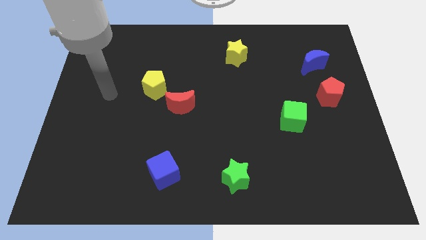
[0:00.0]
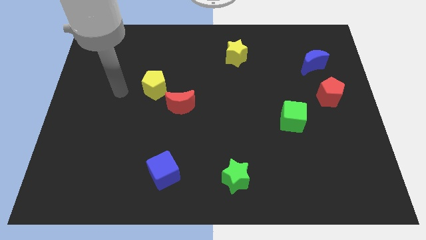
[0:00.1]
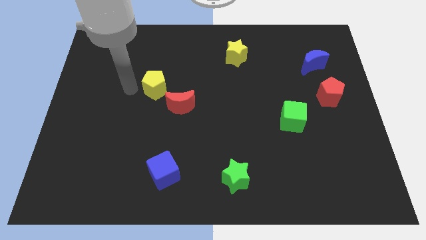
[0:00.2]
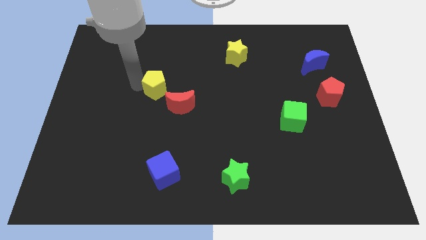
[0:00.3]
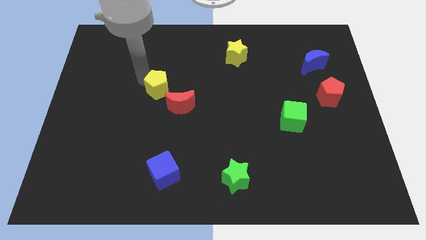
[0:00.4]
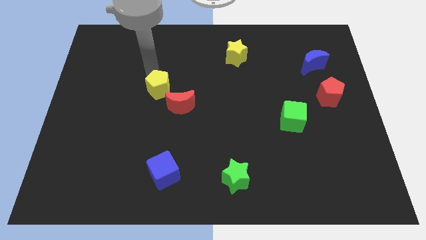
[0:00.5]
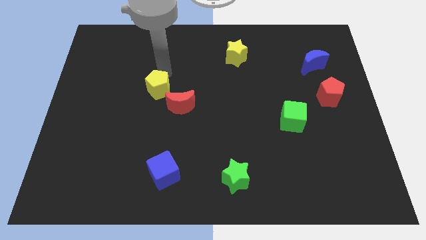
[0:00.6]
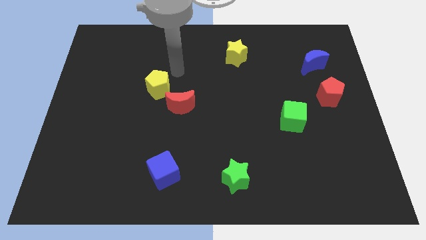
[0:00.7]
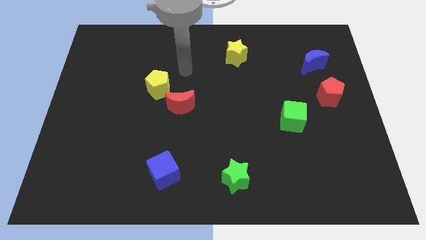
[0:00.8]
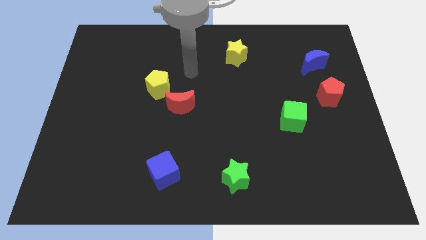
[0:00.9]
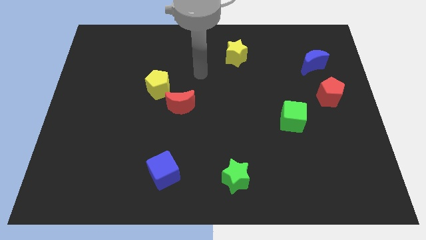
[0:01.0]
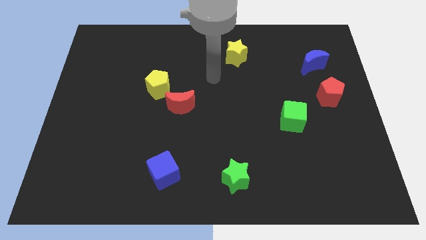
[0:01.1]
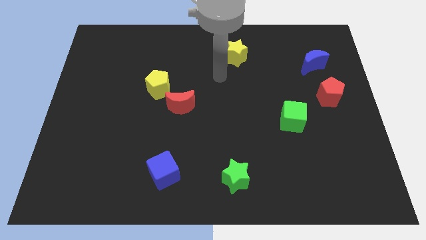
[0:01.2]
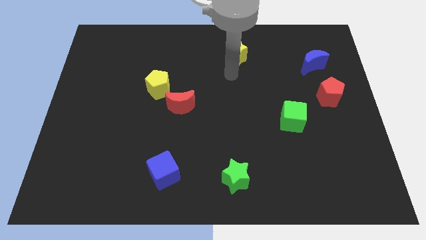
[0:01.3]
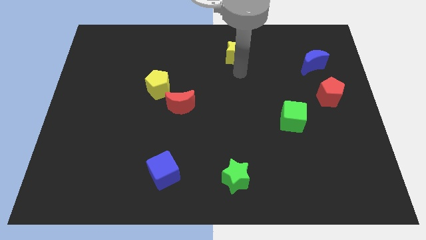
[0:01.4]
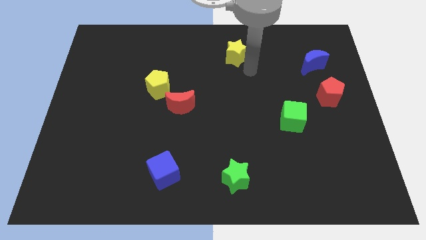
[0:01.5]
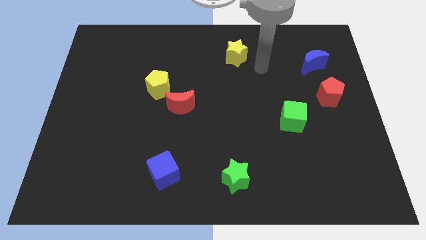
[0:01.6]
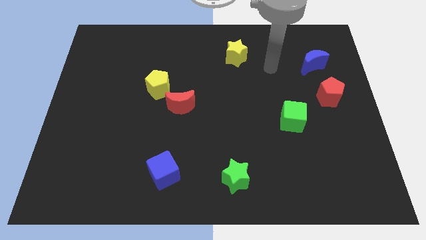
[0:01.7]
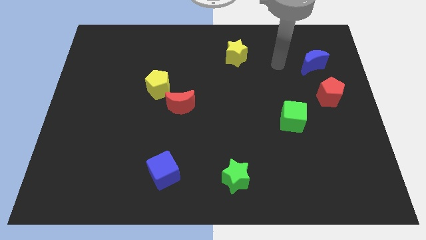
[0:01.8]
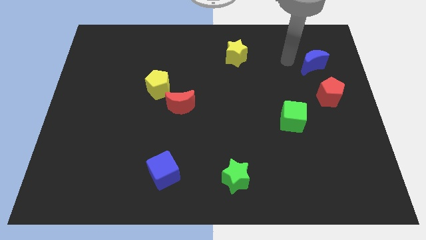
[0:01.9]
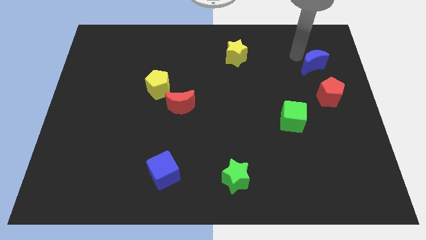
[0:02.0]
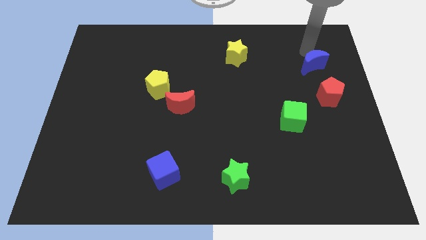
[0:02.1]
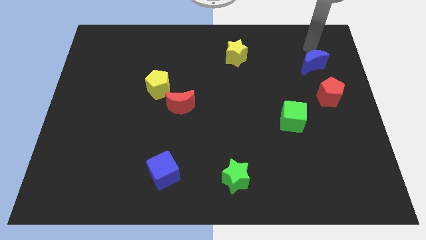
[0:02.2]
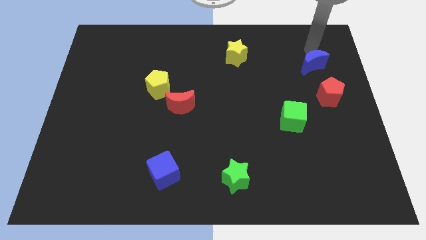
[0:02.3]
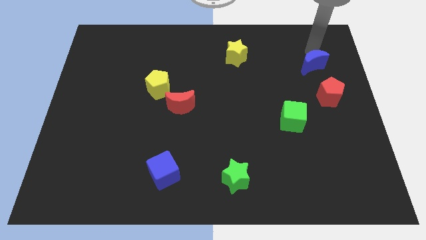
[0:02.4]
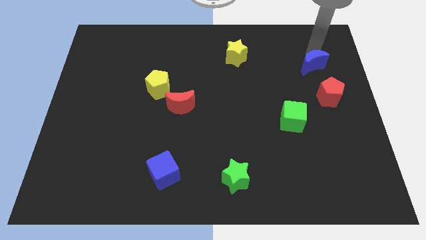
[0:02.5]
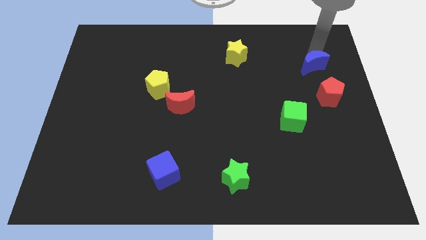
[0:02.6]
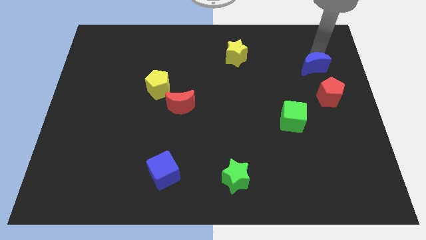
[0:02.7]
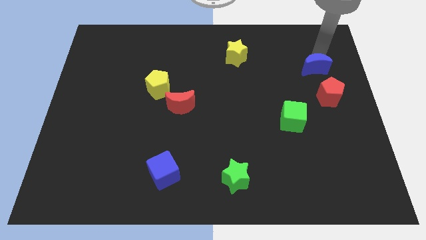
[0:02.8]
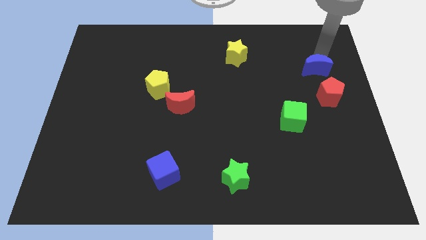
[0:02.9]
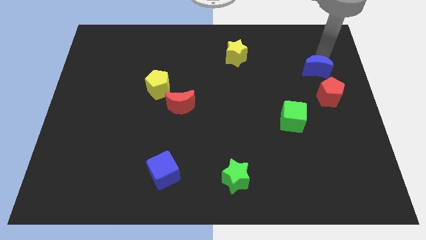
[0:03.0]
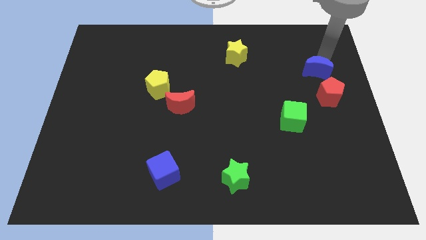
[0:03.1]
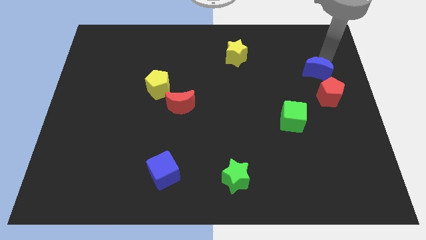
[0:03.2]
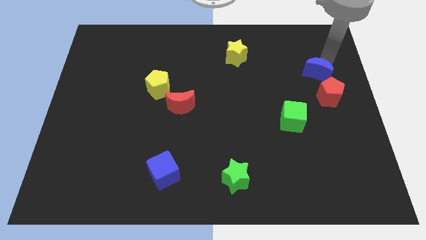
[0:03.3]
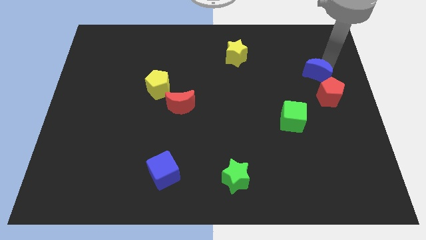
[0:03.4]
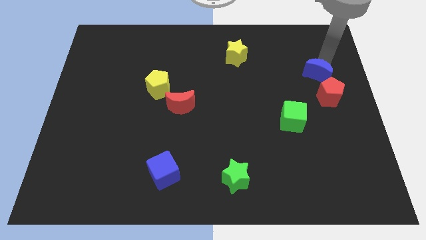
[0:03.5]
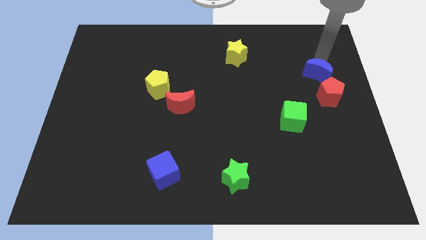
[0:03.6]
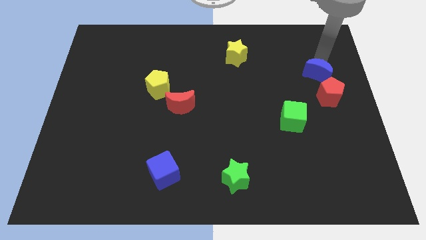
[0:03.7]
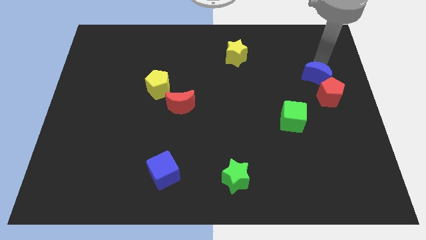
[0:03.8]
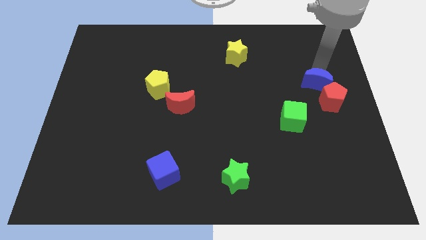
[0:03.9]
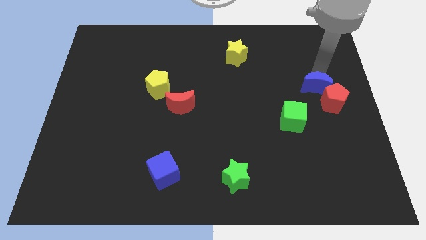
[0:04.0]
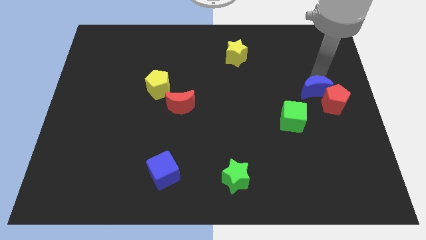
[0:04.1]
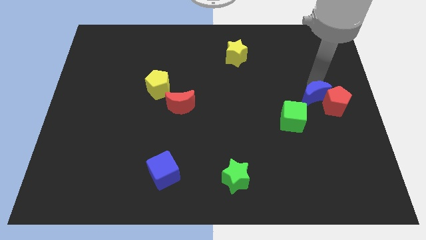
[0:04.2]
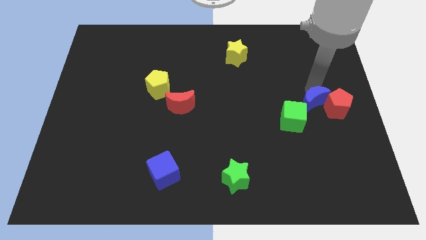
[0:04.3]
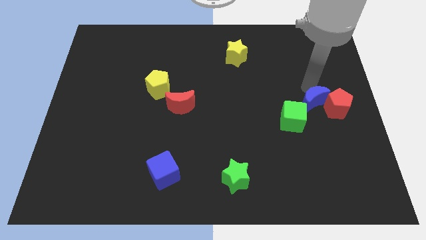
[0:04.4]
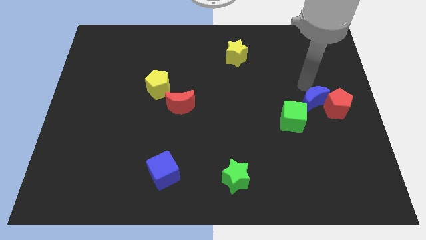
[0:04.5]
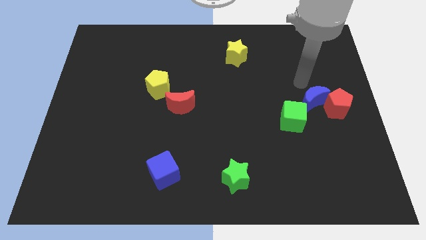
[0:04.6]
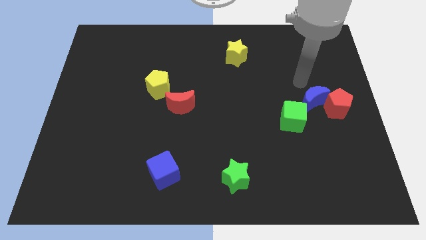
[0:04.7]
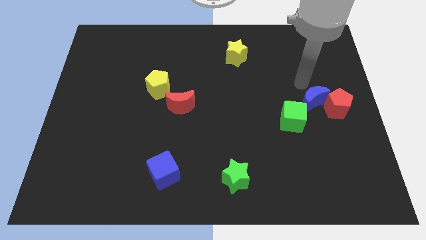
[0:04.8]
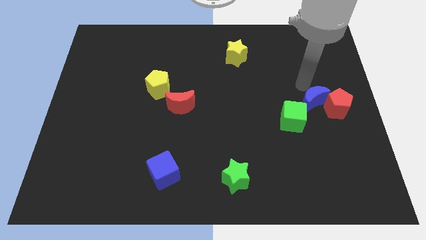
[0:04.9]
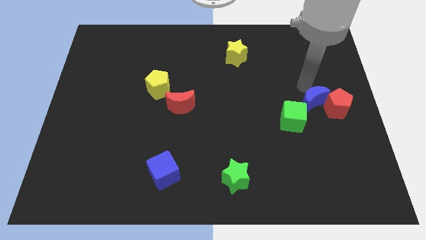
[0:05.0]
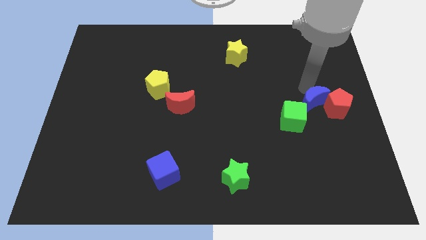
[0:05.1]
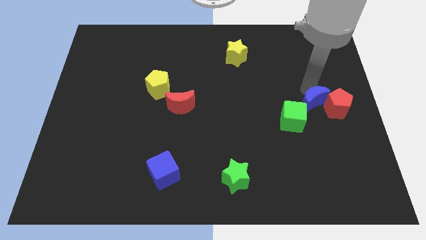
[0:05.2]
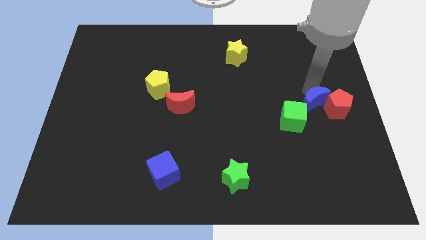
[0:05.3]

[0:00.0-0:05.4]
push the blue moon to the right of the green cube

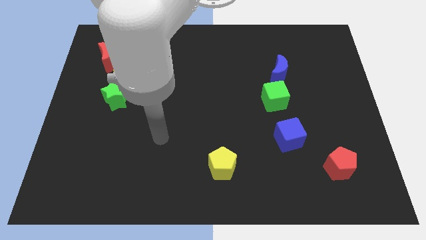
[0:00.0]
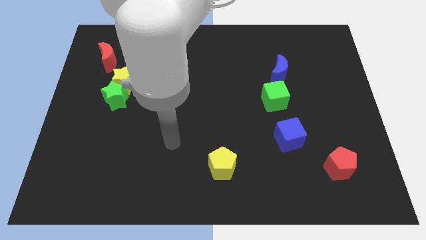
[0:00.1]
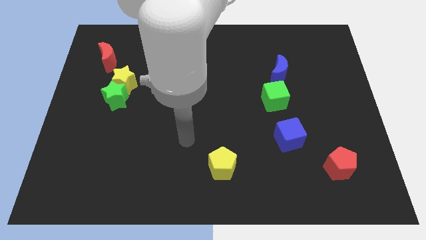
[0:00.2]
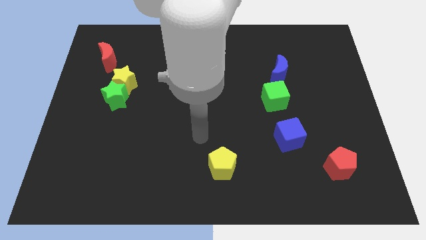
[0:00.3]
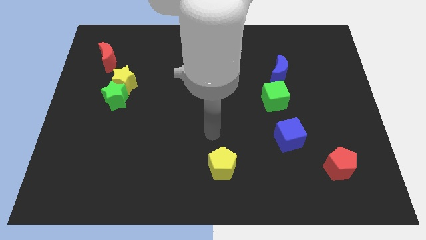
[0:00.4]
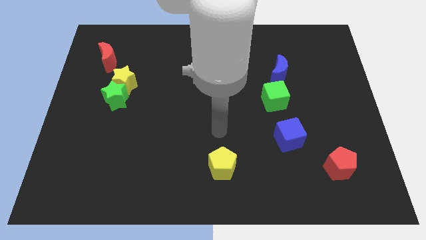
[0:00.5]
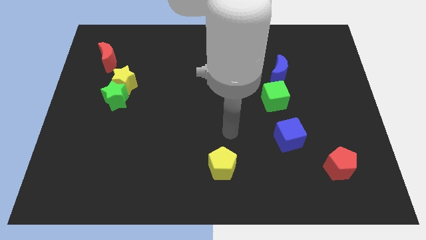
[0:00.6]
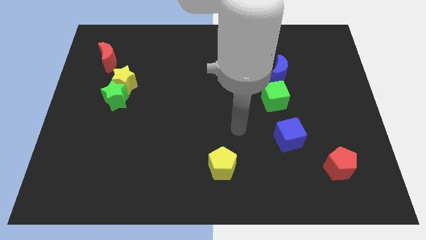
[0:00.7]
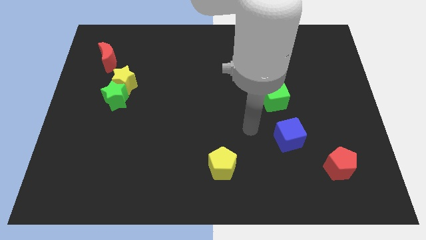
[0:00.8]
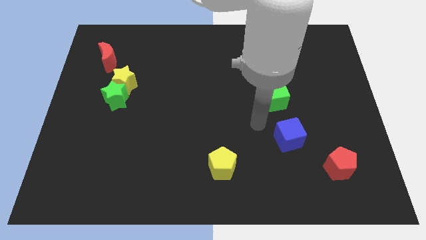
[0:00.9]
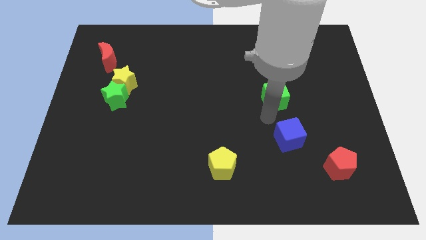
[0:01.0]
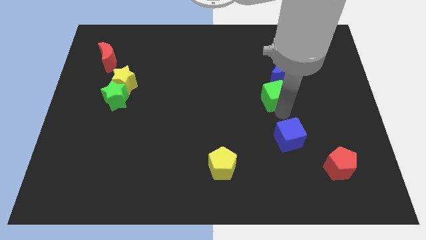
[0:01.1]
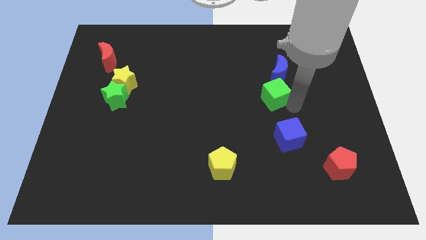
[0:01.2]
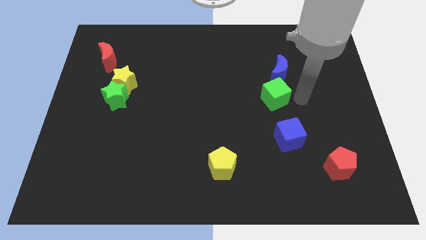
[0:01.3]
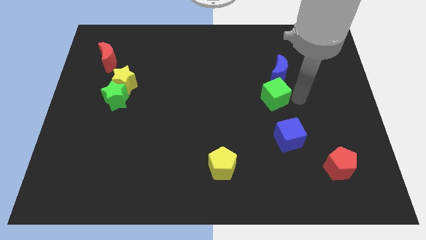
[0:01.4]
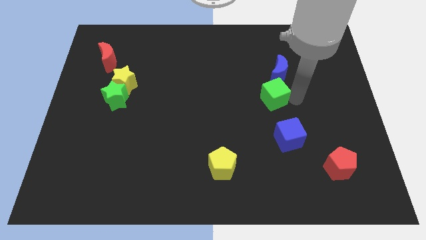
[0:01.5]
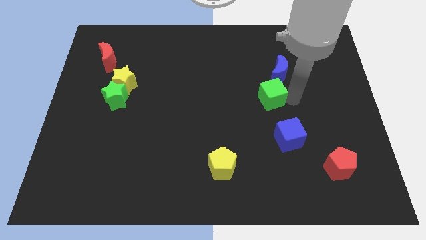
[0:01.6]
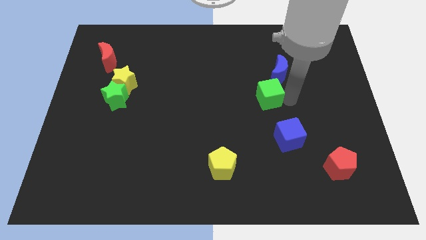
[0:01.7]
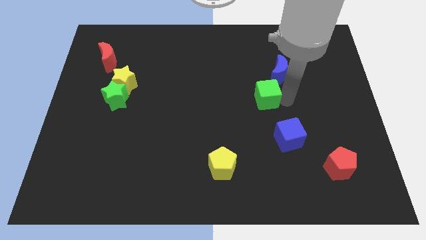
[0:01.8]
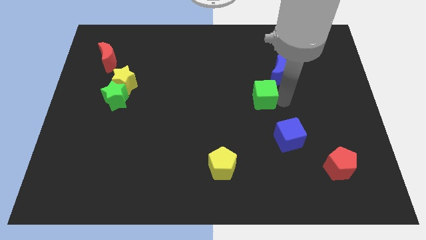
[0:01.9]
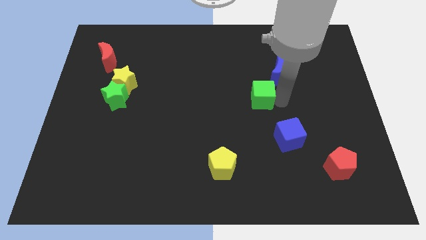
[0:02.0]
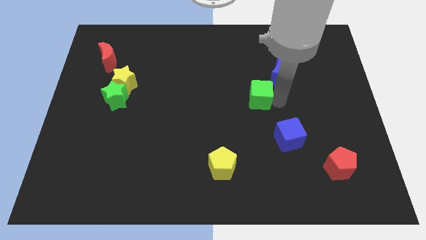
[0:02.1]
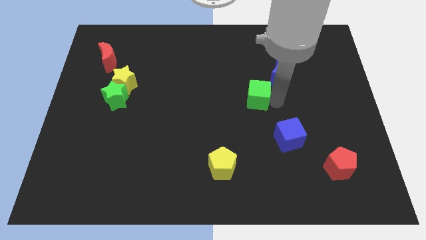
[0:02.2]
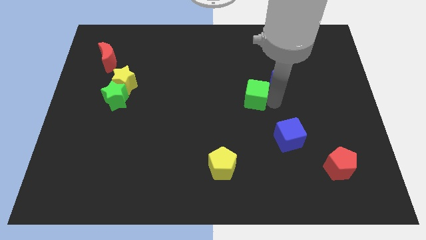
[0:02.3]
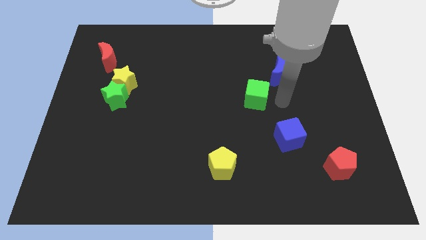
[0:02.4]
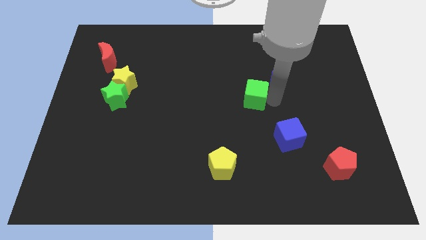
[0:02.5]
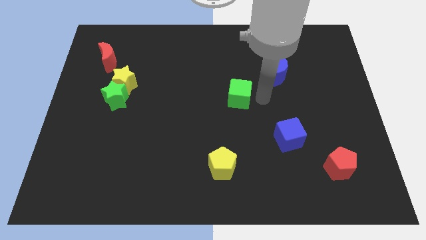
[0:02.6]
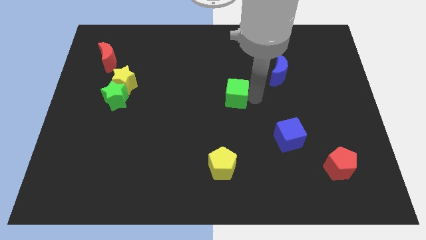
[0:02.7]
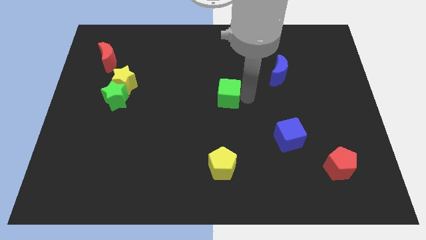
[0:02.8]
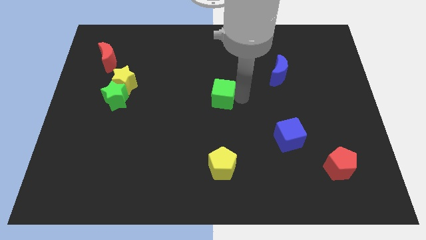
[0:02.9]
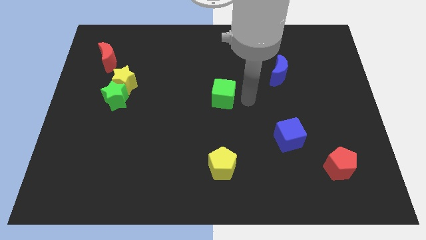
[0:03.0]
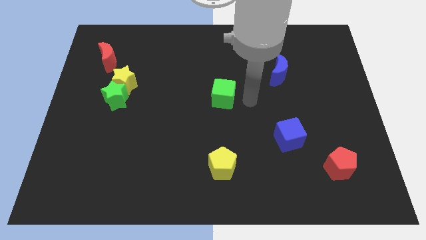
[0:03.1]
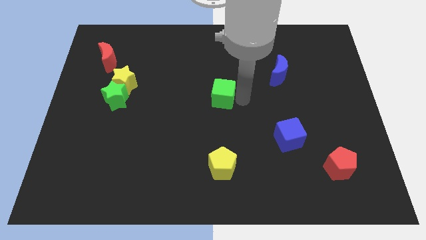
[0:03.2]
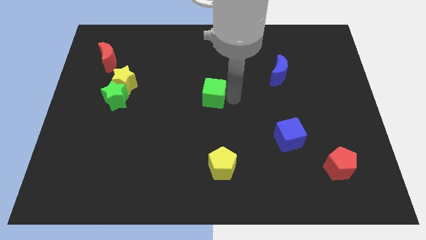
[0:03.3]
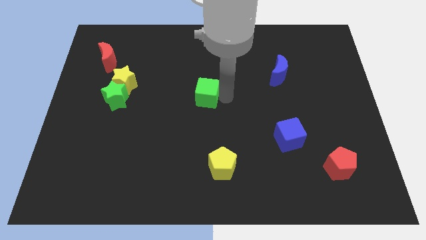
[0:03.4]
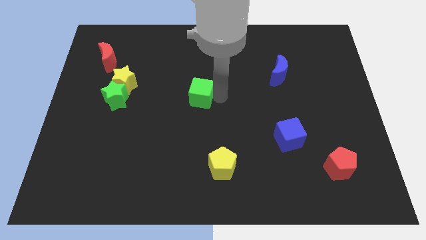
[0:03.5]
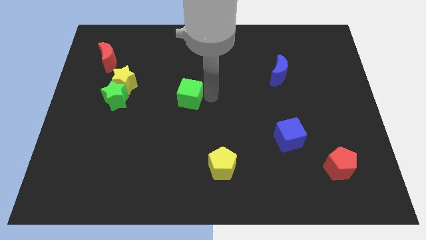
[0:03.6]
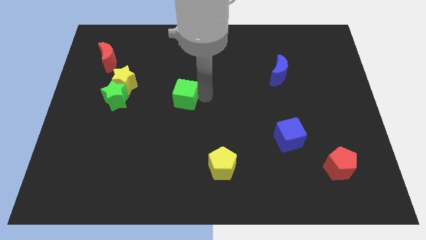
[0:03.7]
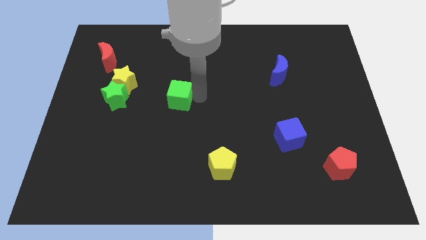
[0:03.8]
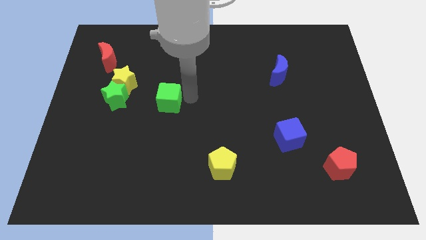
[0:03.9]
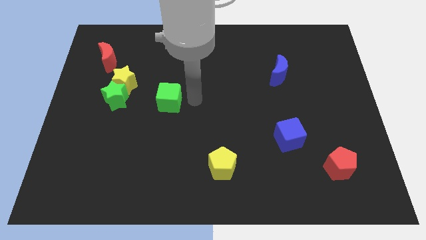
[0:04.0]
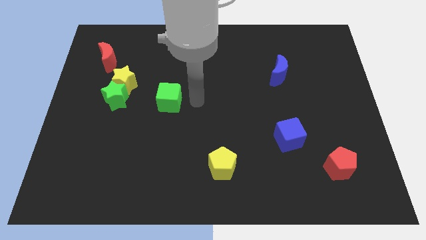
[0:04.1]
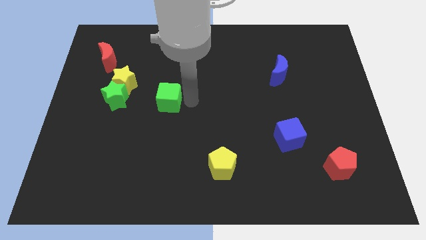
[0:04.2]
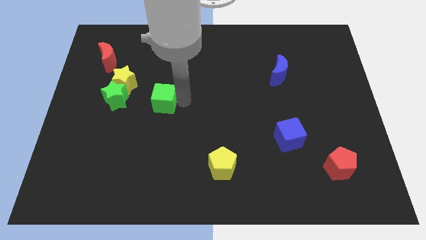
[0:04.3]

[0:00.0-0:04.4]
push the green cube to the bottom right of the yellow star
